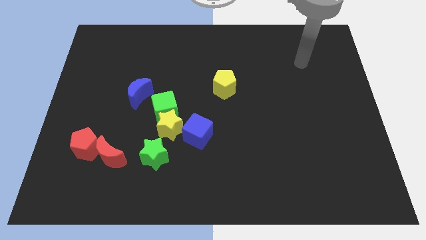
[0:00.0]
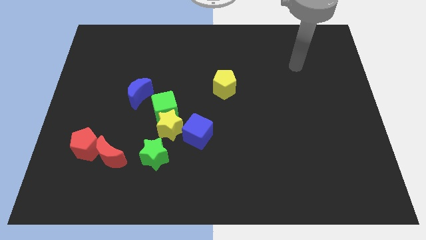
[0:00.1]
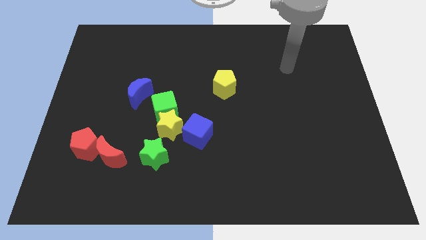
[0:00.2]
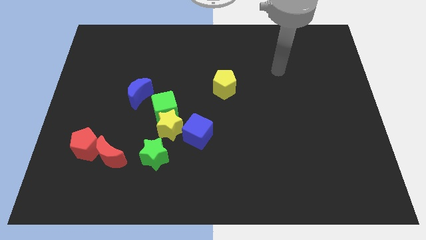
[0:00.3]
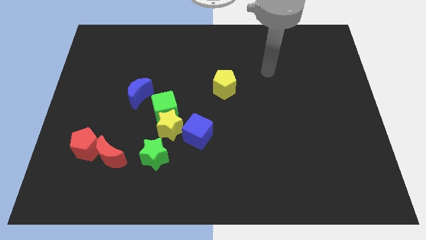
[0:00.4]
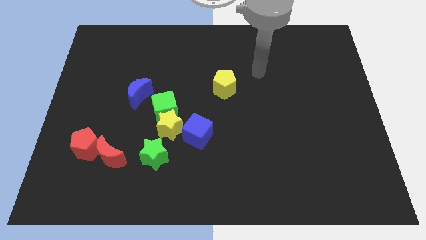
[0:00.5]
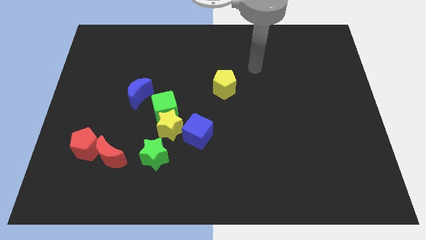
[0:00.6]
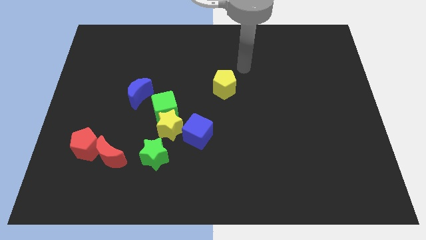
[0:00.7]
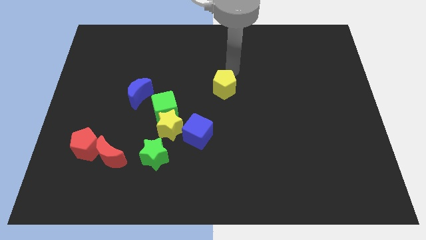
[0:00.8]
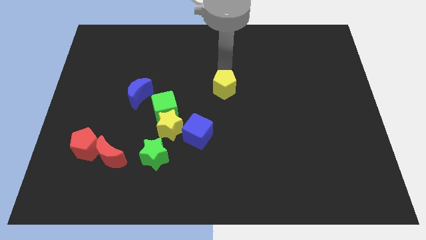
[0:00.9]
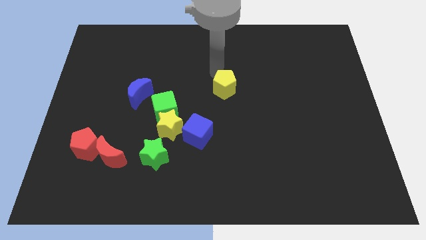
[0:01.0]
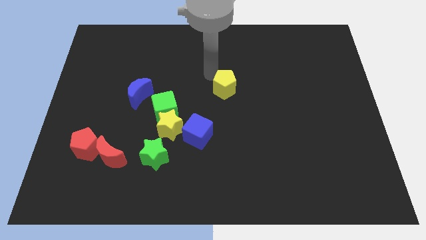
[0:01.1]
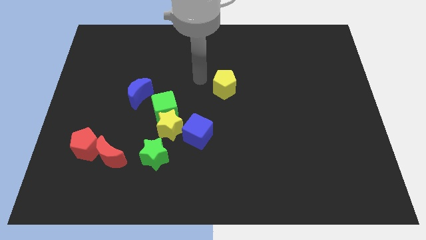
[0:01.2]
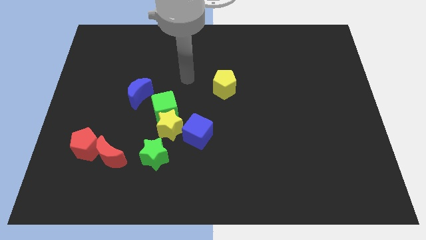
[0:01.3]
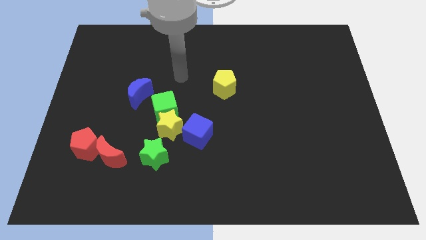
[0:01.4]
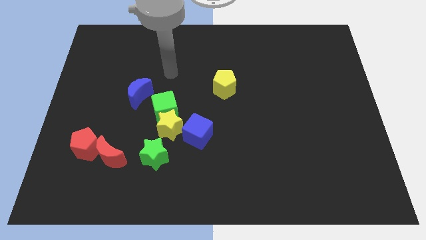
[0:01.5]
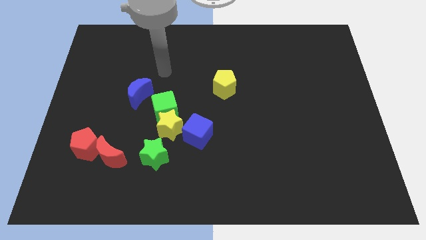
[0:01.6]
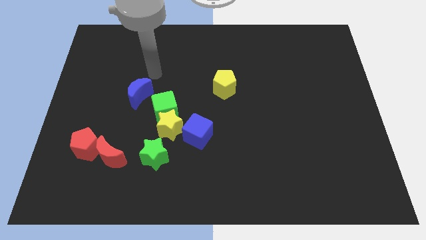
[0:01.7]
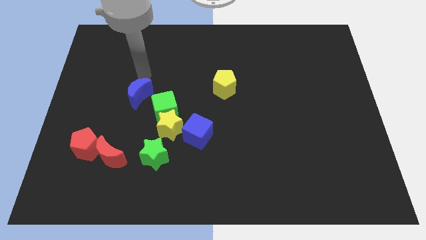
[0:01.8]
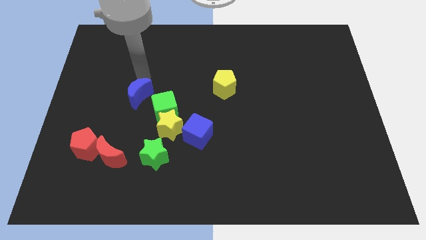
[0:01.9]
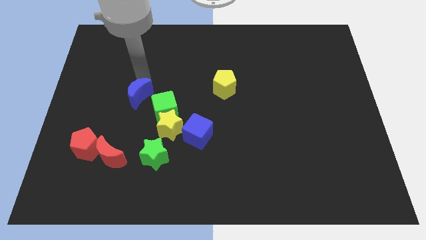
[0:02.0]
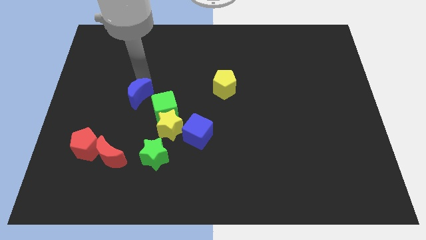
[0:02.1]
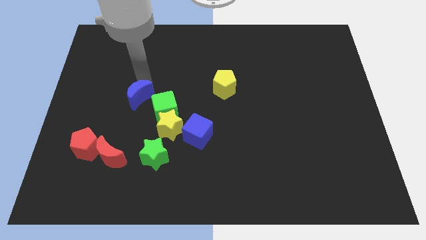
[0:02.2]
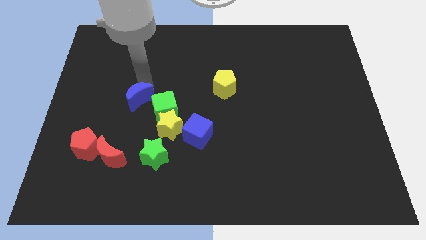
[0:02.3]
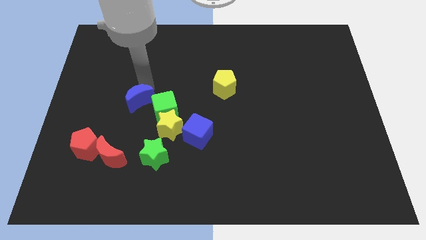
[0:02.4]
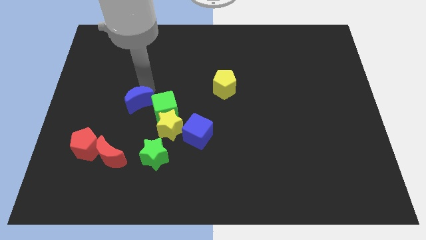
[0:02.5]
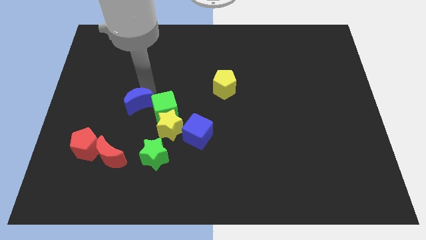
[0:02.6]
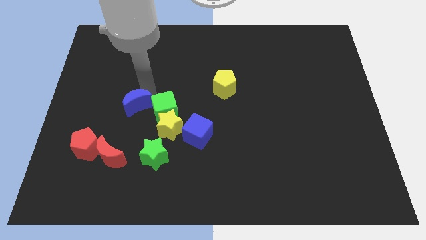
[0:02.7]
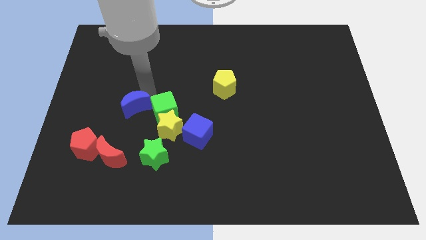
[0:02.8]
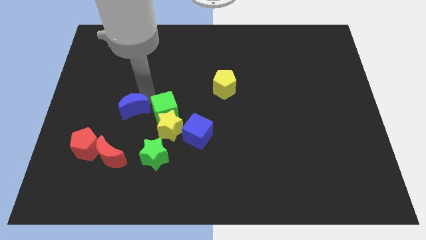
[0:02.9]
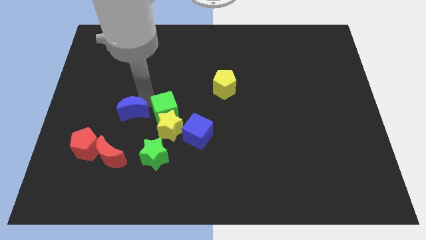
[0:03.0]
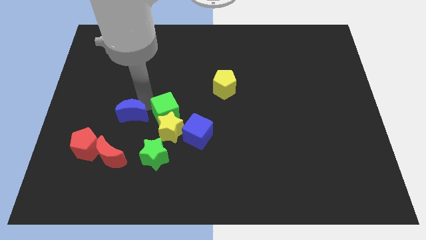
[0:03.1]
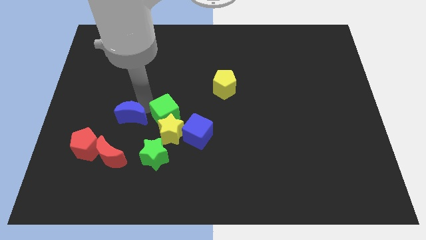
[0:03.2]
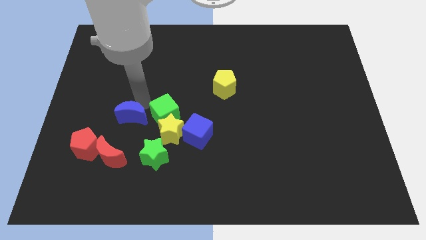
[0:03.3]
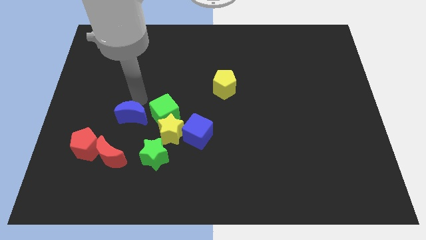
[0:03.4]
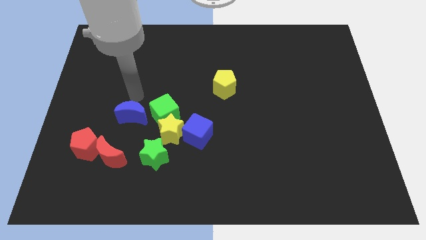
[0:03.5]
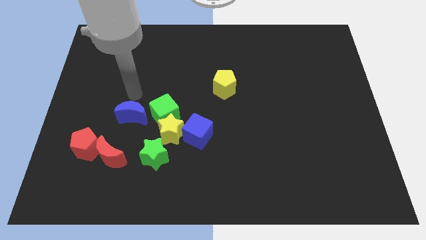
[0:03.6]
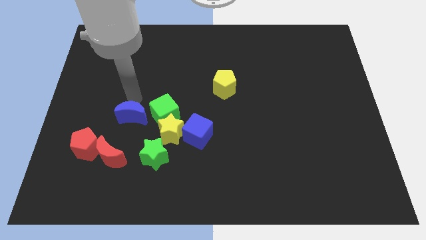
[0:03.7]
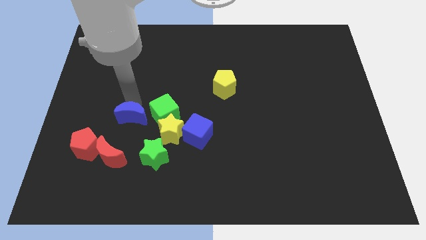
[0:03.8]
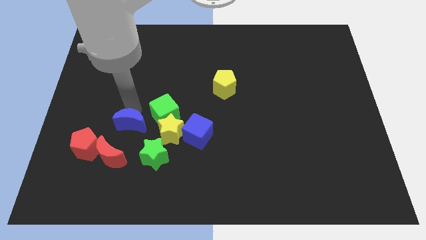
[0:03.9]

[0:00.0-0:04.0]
move the blue moon a little bit down

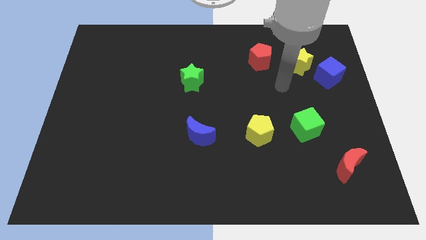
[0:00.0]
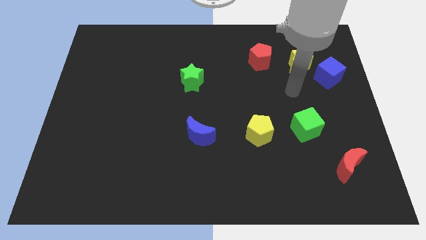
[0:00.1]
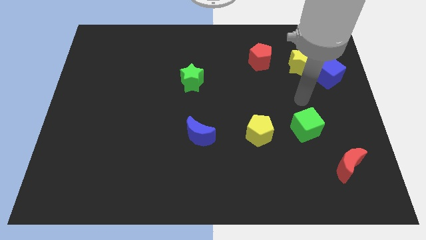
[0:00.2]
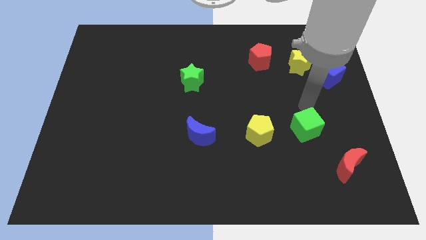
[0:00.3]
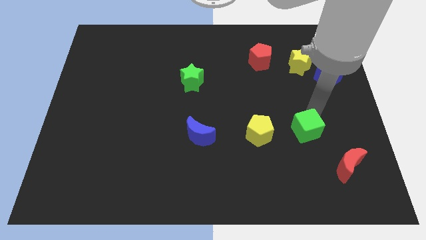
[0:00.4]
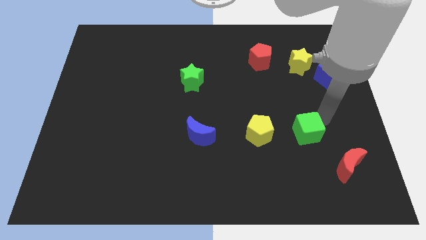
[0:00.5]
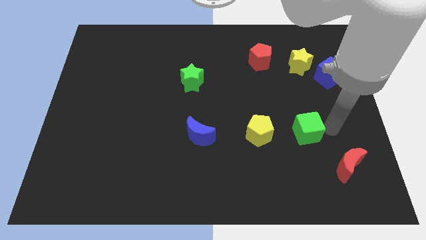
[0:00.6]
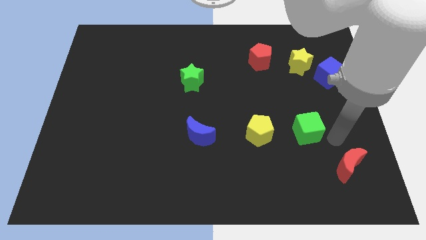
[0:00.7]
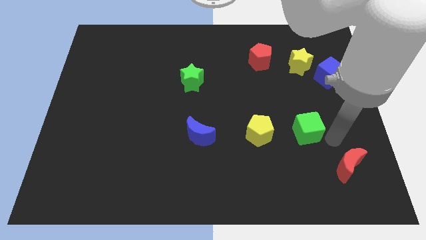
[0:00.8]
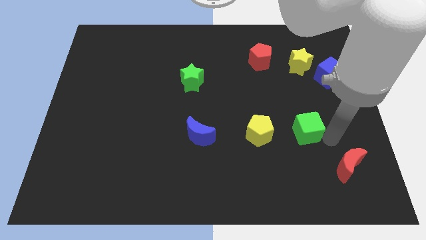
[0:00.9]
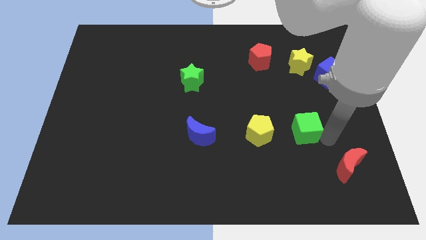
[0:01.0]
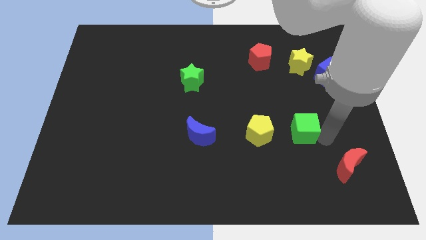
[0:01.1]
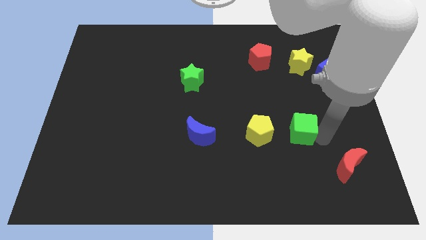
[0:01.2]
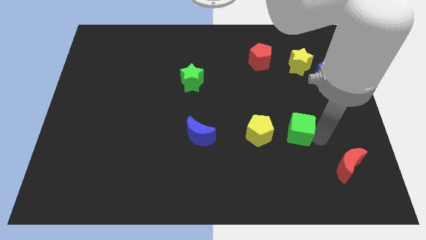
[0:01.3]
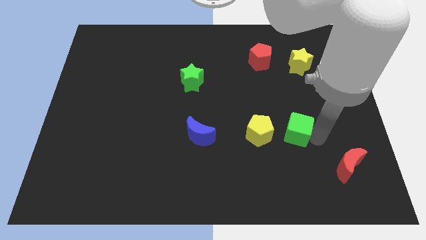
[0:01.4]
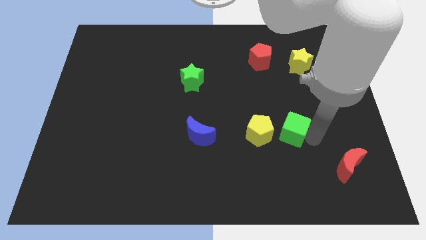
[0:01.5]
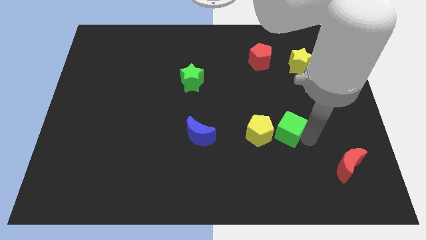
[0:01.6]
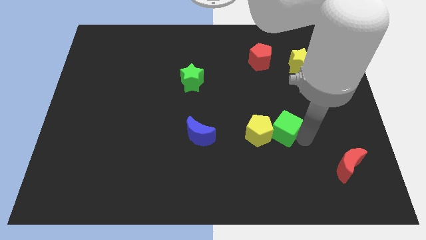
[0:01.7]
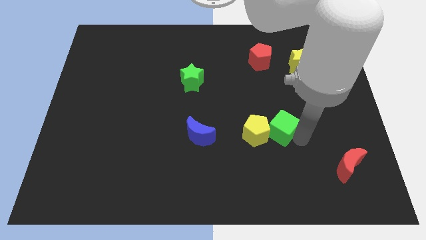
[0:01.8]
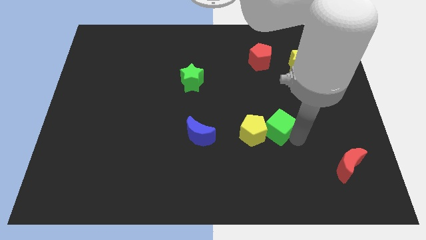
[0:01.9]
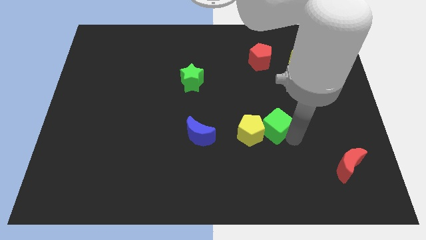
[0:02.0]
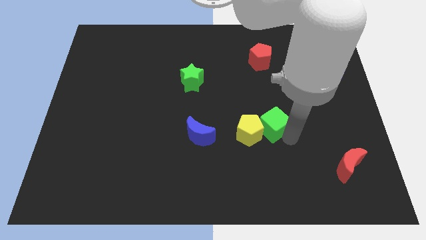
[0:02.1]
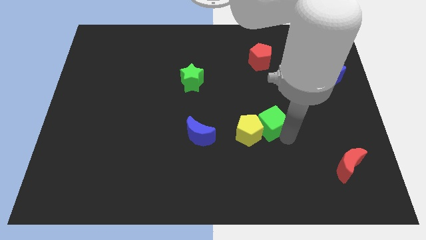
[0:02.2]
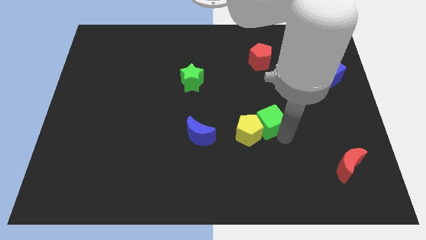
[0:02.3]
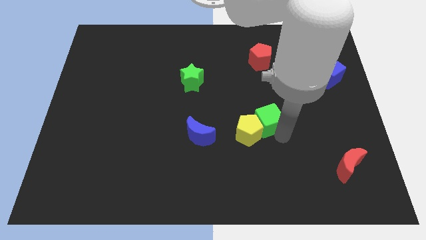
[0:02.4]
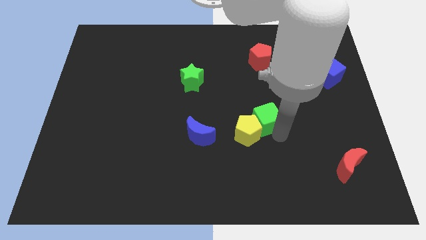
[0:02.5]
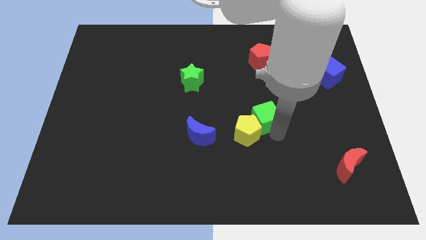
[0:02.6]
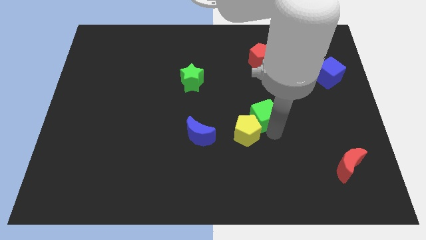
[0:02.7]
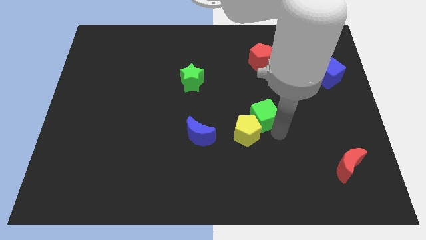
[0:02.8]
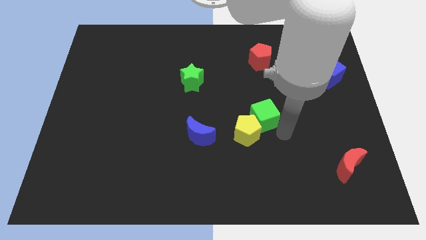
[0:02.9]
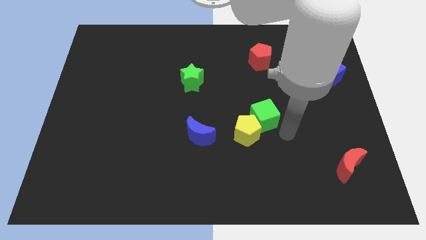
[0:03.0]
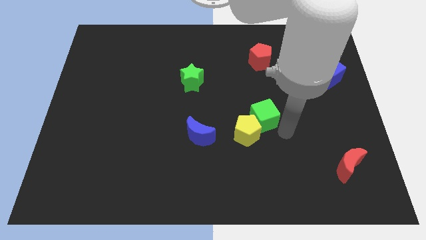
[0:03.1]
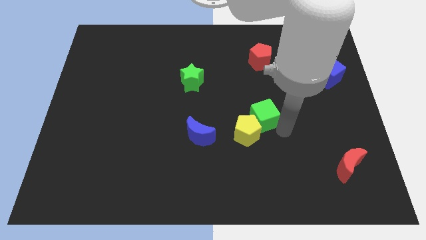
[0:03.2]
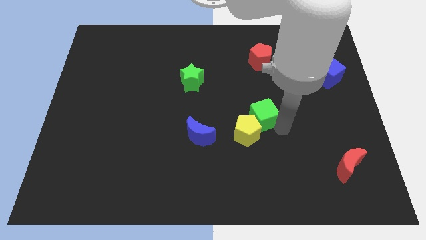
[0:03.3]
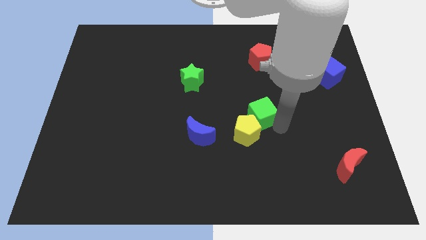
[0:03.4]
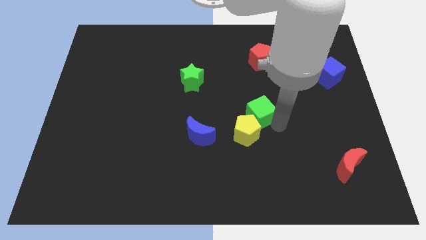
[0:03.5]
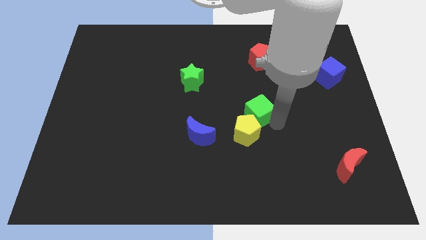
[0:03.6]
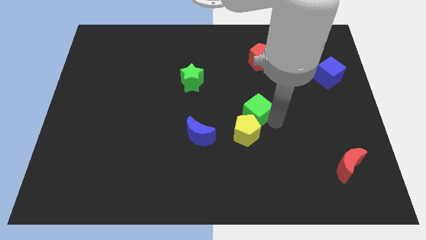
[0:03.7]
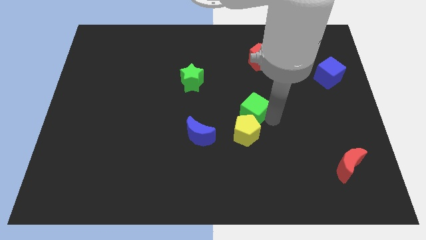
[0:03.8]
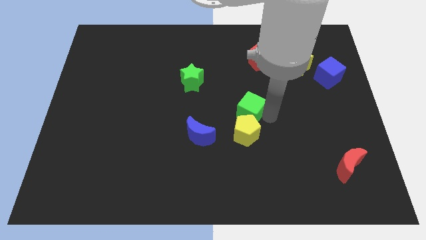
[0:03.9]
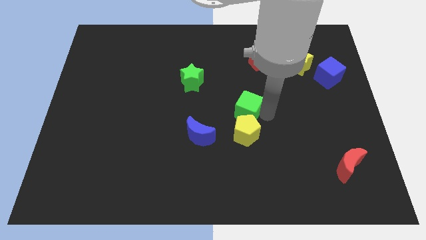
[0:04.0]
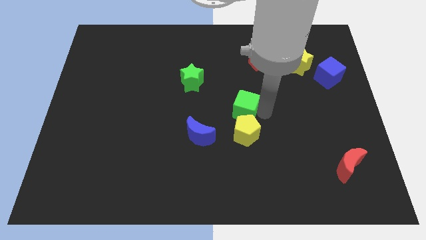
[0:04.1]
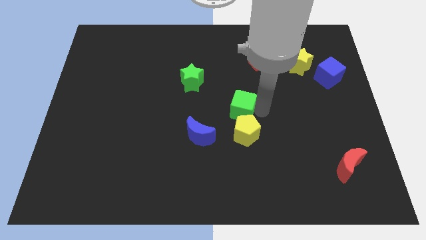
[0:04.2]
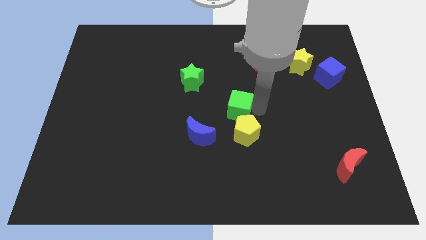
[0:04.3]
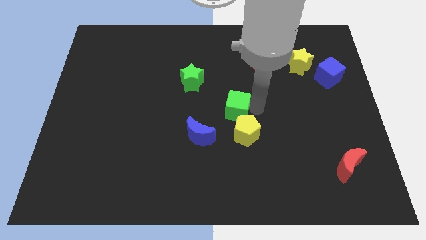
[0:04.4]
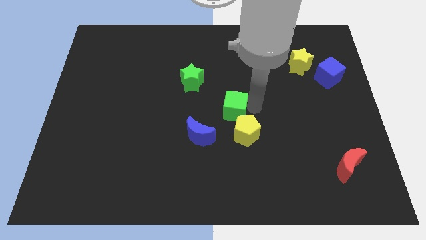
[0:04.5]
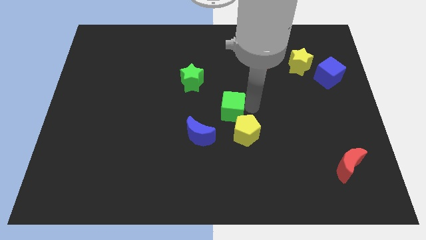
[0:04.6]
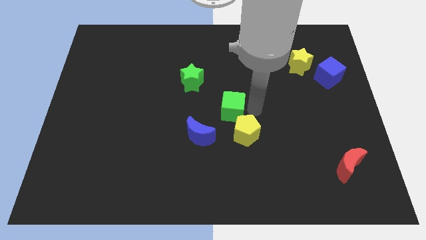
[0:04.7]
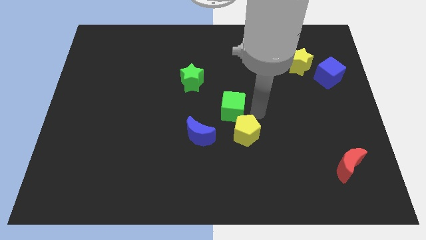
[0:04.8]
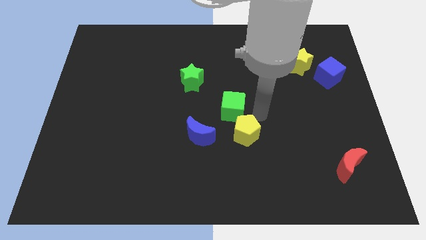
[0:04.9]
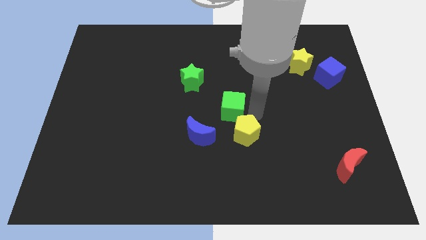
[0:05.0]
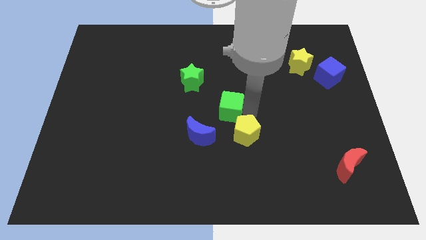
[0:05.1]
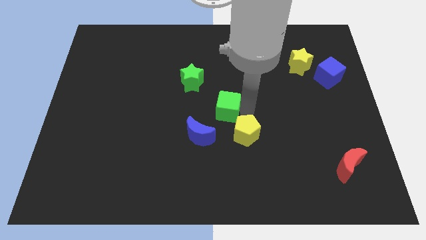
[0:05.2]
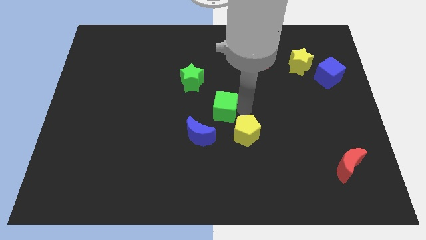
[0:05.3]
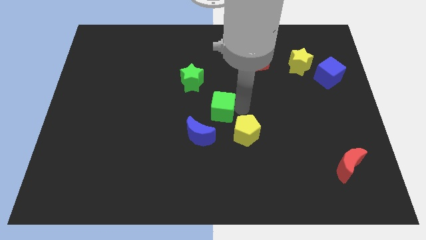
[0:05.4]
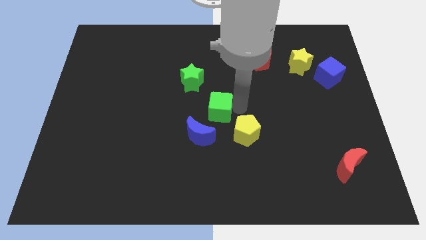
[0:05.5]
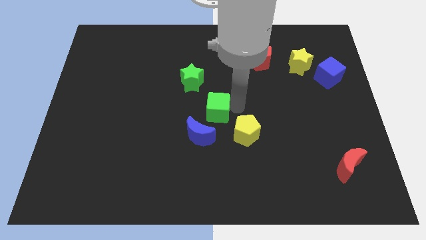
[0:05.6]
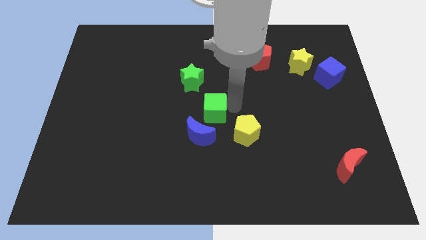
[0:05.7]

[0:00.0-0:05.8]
move the green cube to the left
